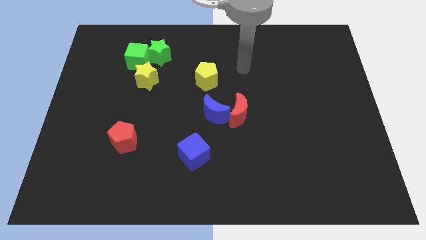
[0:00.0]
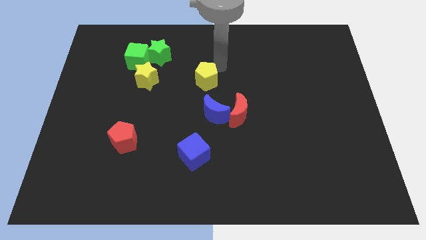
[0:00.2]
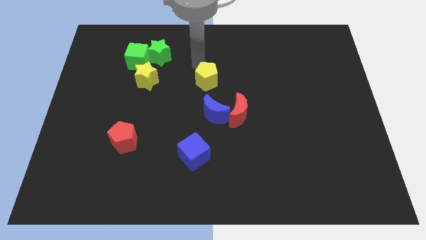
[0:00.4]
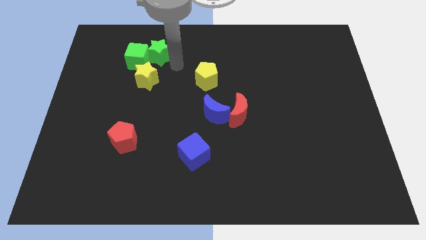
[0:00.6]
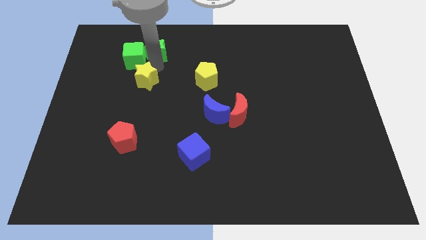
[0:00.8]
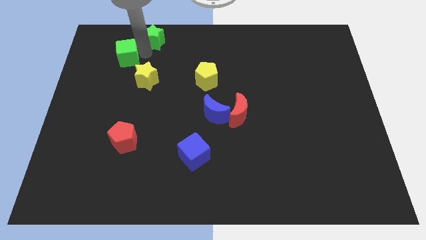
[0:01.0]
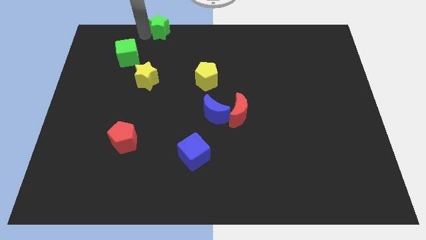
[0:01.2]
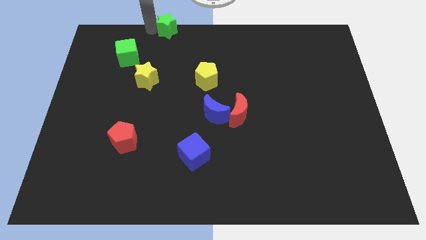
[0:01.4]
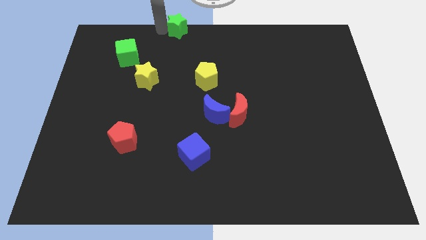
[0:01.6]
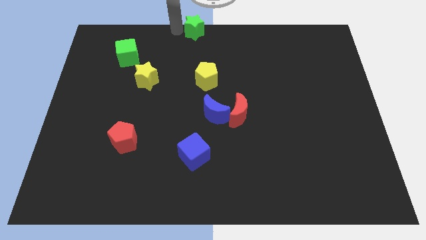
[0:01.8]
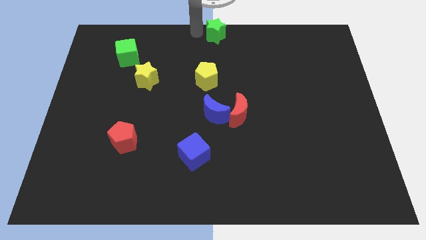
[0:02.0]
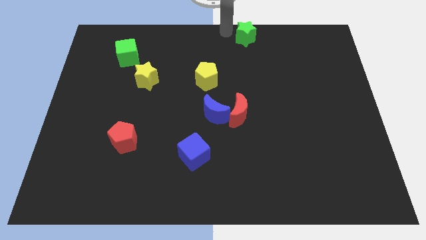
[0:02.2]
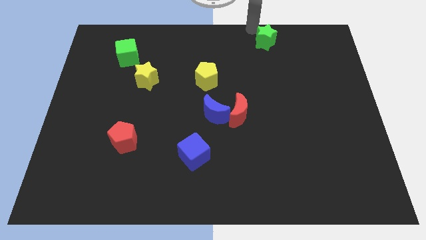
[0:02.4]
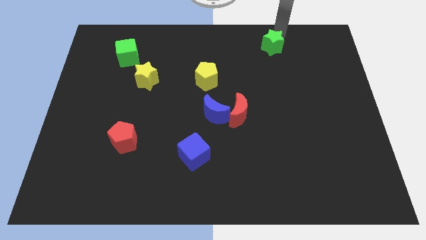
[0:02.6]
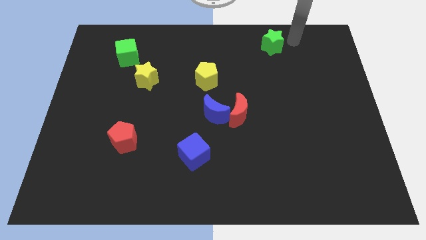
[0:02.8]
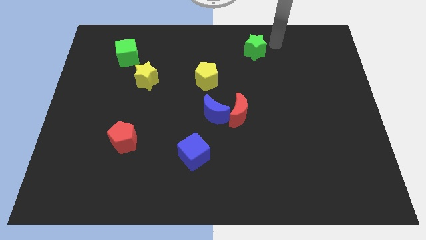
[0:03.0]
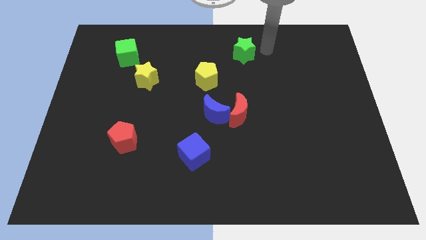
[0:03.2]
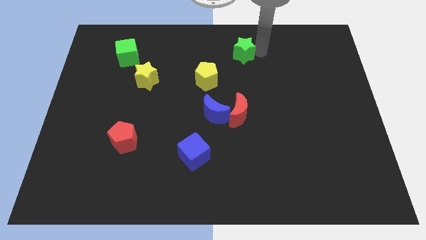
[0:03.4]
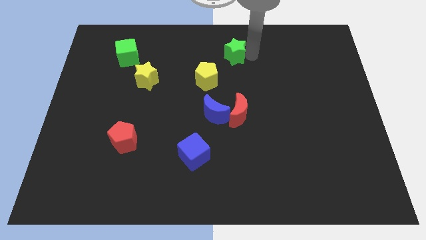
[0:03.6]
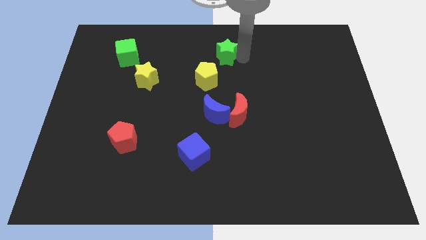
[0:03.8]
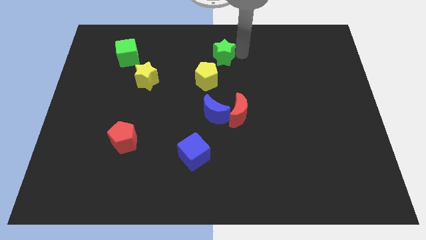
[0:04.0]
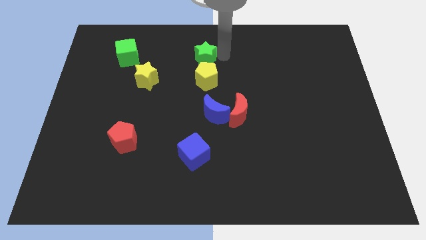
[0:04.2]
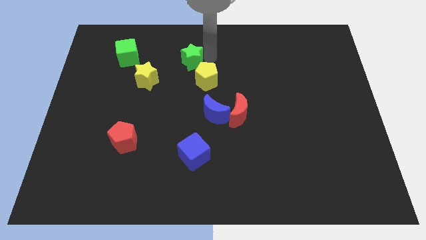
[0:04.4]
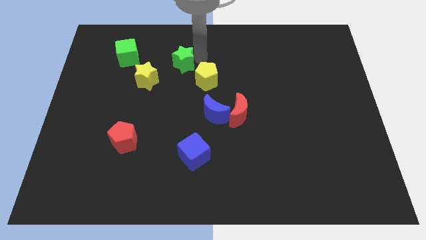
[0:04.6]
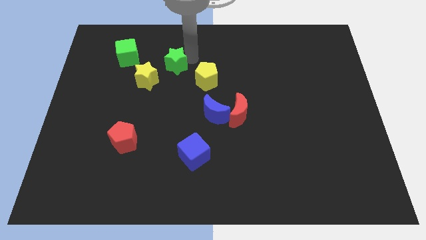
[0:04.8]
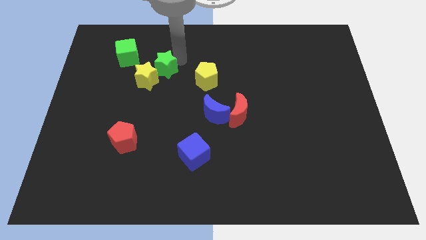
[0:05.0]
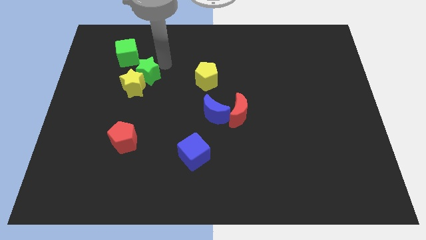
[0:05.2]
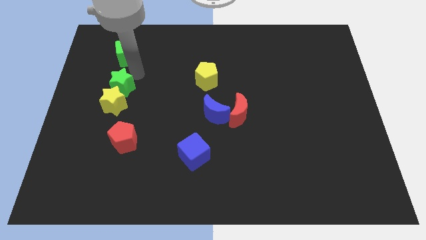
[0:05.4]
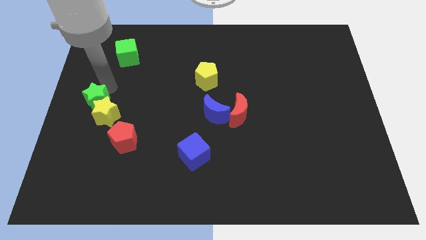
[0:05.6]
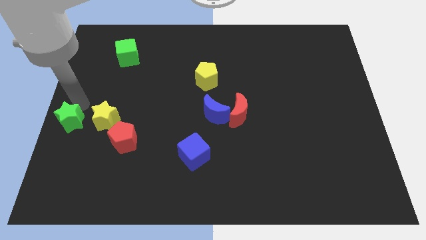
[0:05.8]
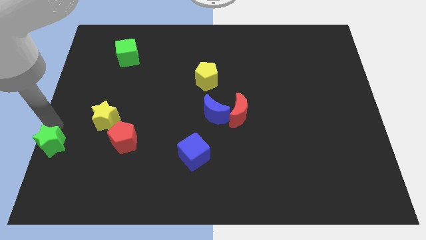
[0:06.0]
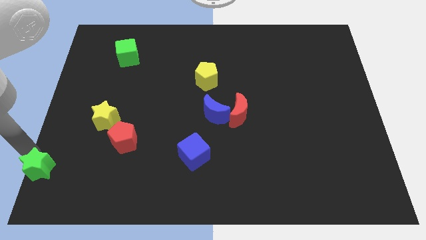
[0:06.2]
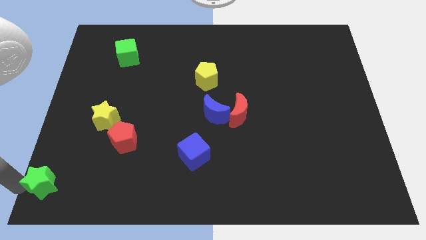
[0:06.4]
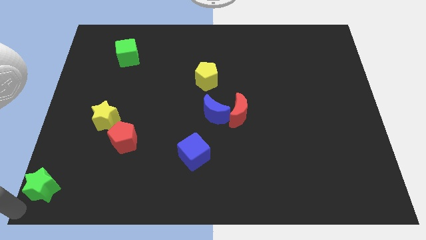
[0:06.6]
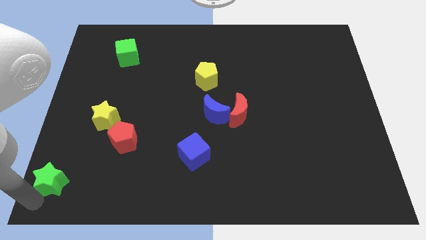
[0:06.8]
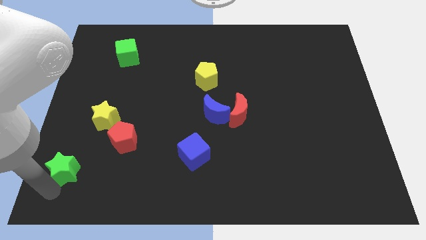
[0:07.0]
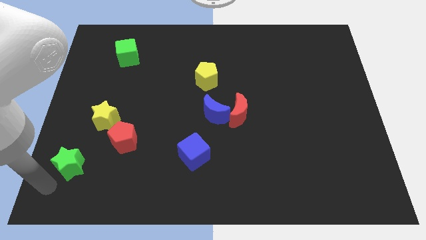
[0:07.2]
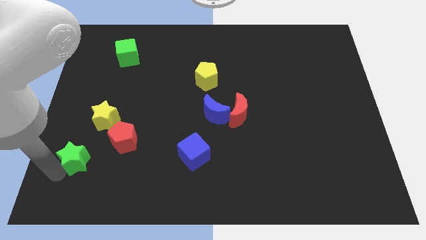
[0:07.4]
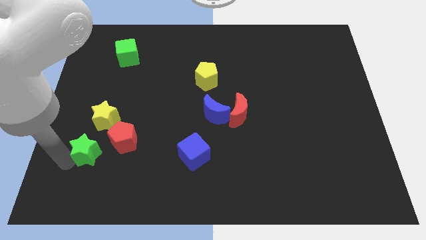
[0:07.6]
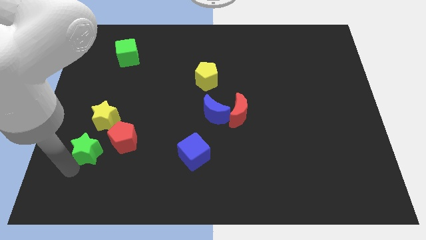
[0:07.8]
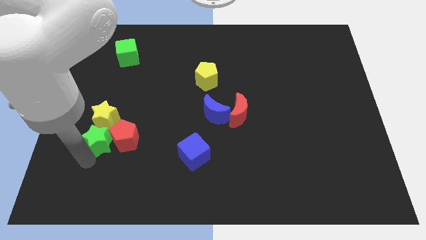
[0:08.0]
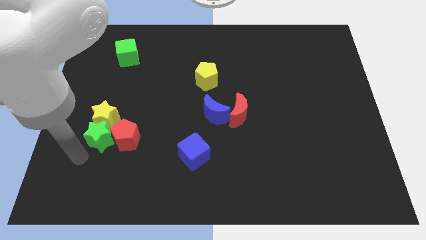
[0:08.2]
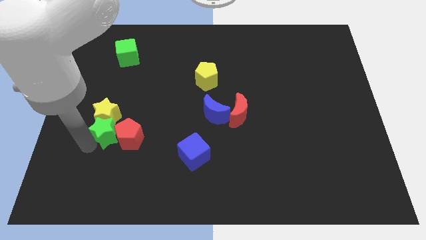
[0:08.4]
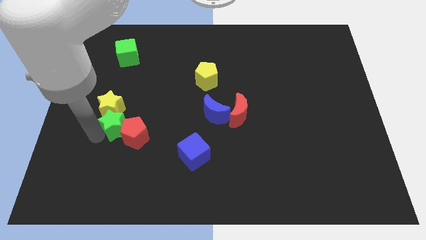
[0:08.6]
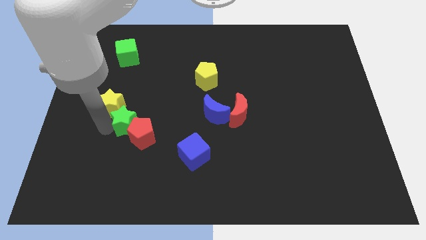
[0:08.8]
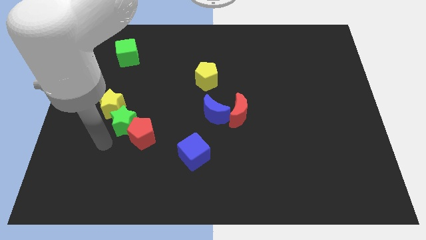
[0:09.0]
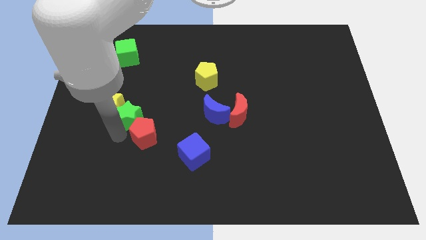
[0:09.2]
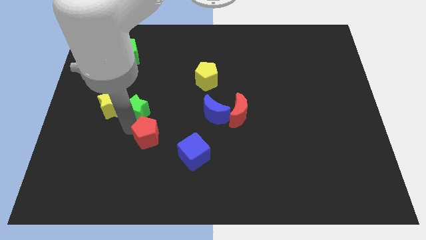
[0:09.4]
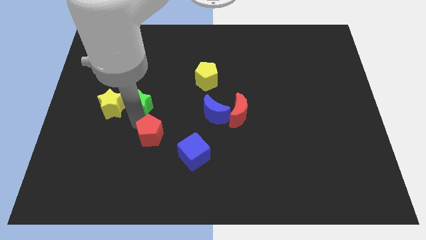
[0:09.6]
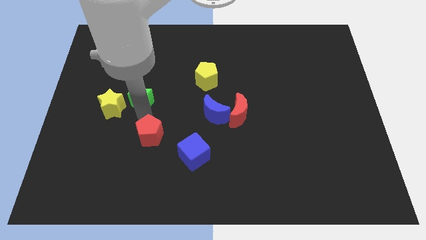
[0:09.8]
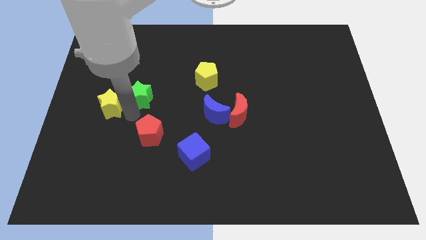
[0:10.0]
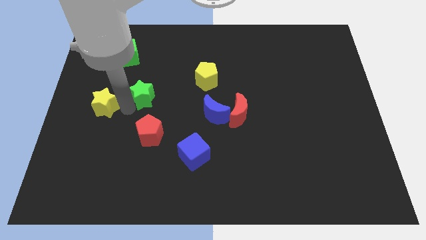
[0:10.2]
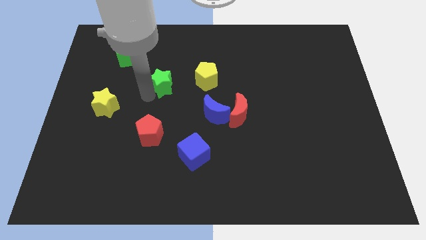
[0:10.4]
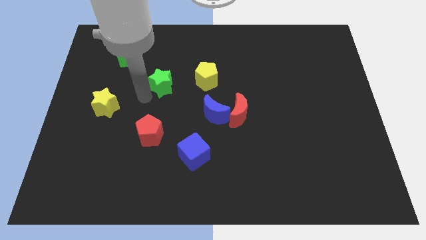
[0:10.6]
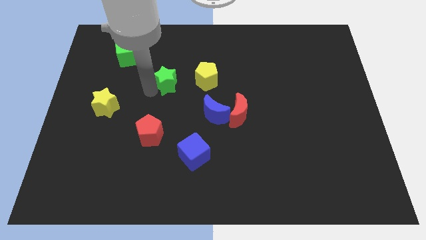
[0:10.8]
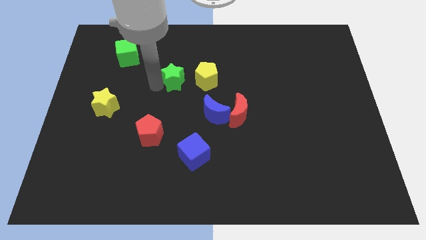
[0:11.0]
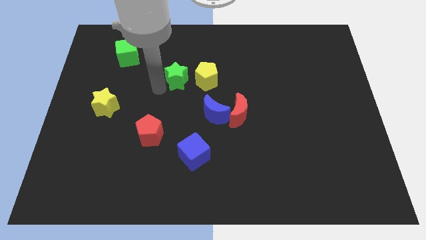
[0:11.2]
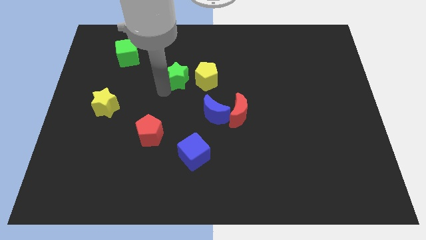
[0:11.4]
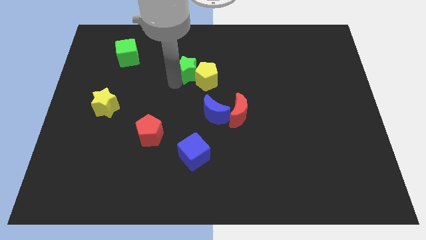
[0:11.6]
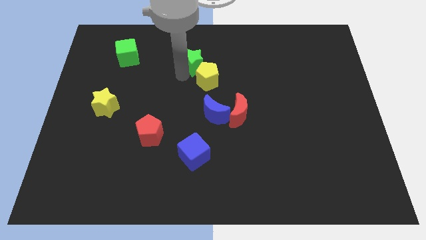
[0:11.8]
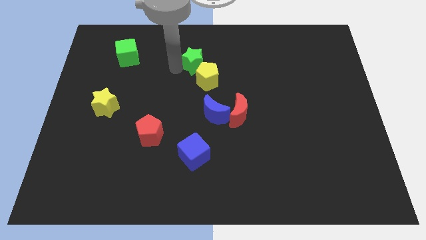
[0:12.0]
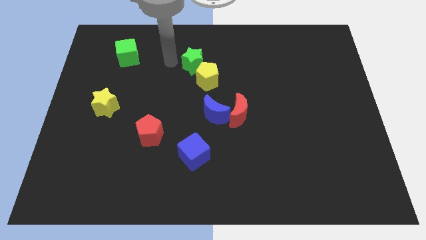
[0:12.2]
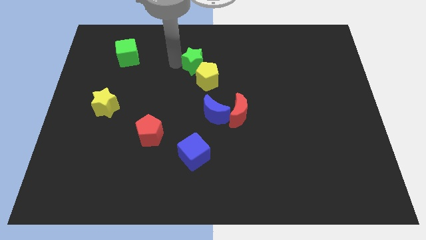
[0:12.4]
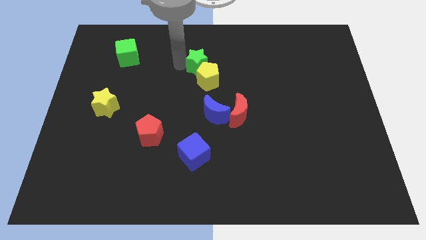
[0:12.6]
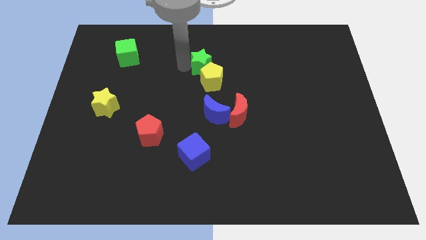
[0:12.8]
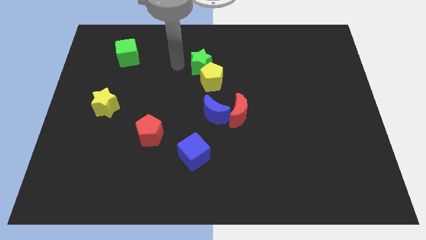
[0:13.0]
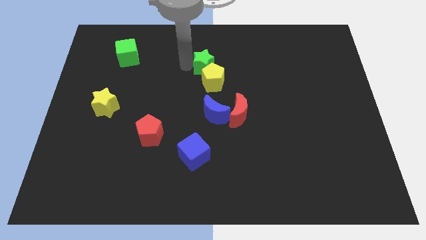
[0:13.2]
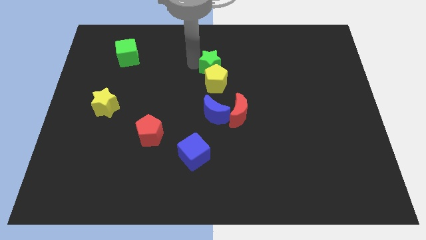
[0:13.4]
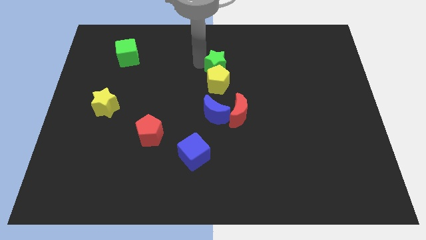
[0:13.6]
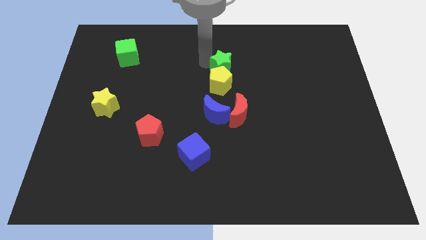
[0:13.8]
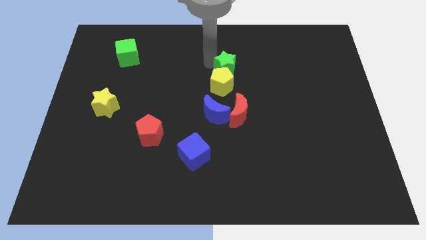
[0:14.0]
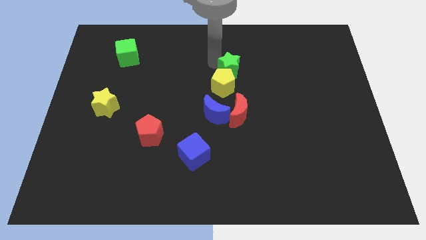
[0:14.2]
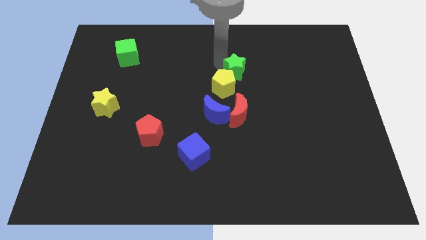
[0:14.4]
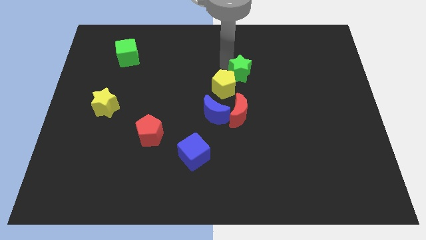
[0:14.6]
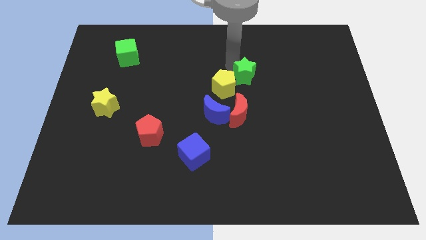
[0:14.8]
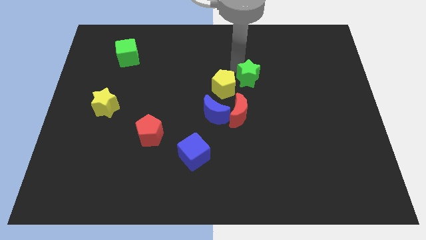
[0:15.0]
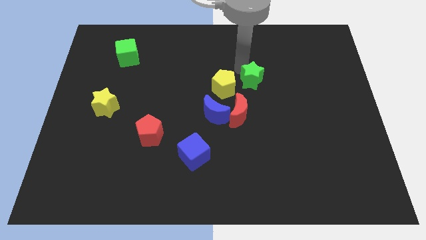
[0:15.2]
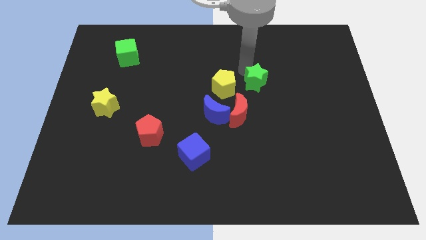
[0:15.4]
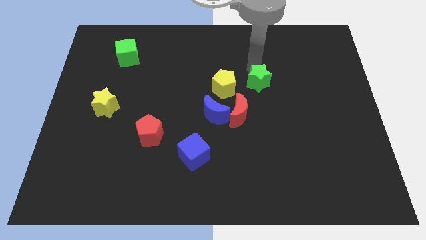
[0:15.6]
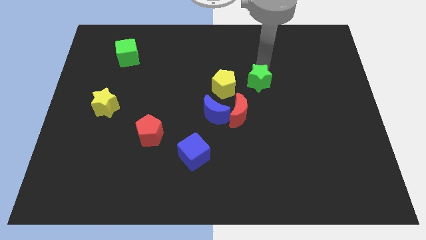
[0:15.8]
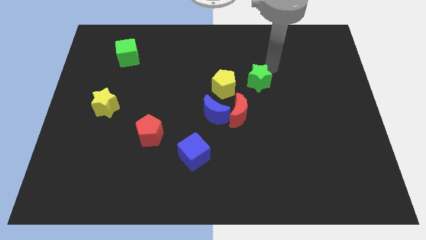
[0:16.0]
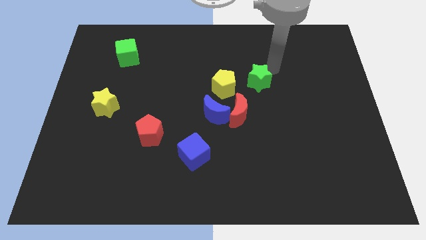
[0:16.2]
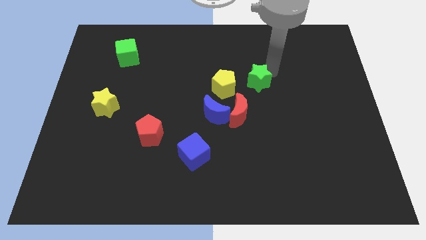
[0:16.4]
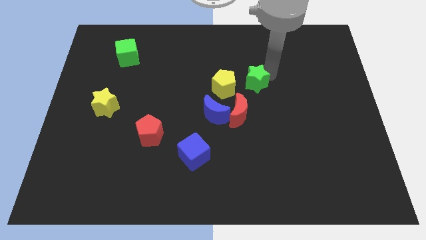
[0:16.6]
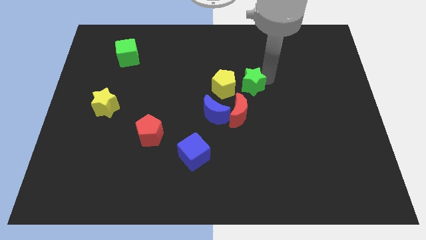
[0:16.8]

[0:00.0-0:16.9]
push the green star diagonally down and right
